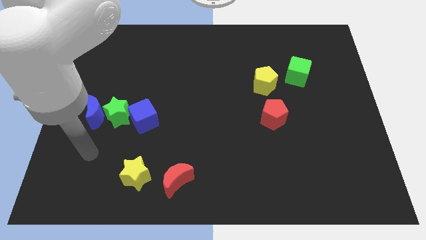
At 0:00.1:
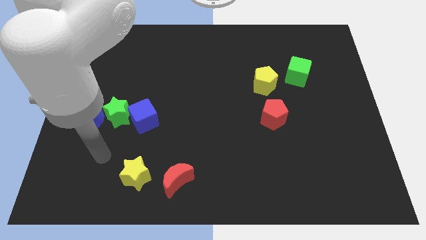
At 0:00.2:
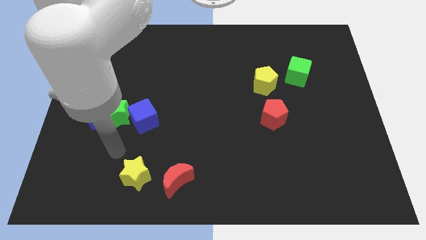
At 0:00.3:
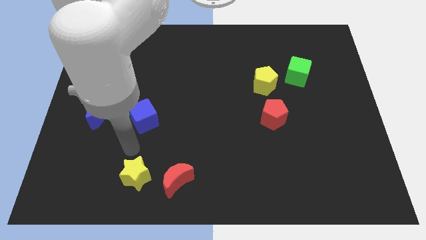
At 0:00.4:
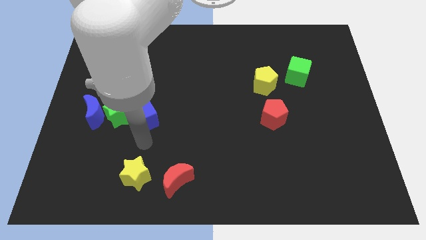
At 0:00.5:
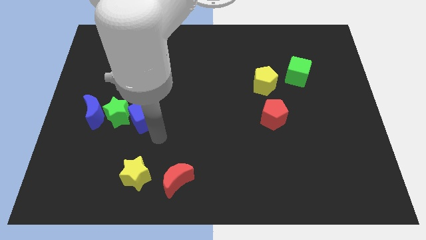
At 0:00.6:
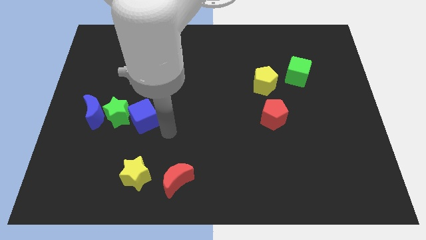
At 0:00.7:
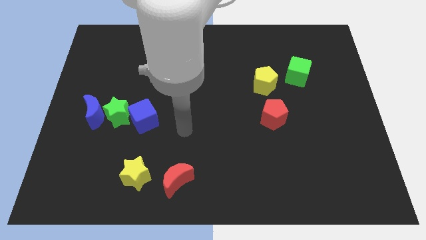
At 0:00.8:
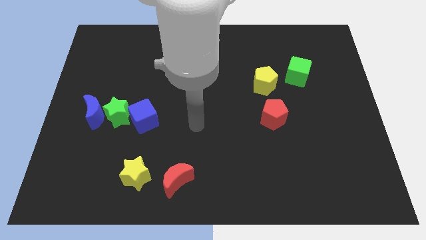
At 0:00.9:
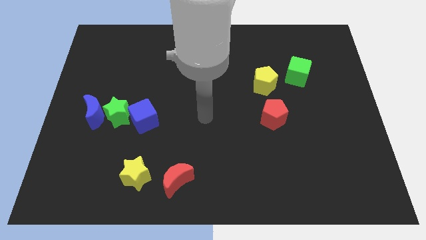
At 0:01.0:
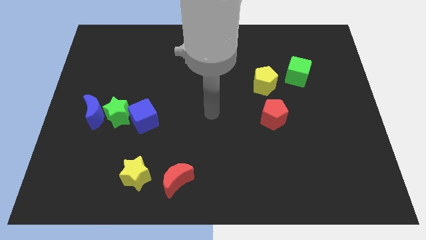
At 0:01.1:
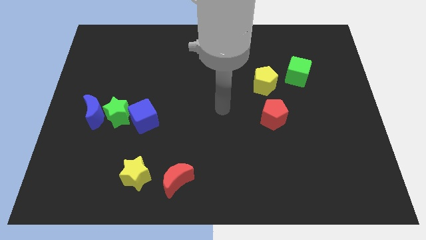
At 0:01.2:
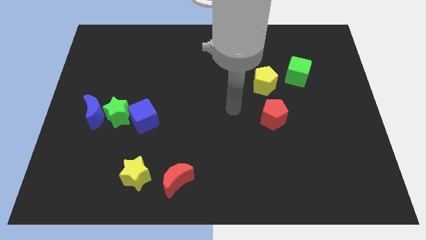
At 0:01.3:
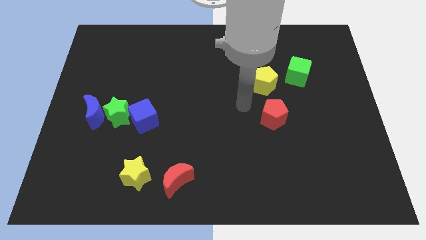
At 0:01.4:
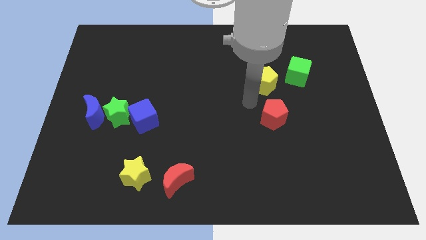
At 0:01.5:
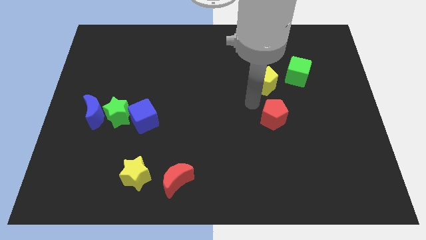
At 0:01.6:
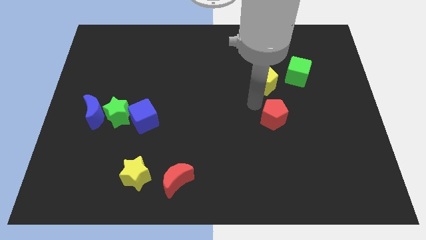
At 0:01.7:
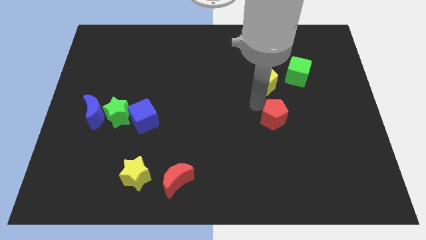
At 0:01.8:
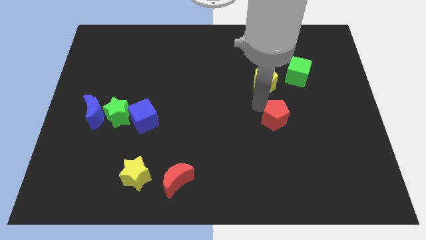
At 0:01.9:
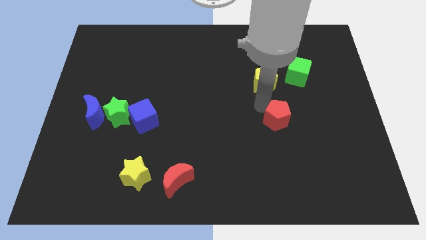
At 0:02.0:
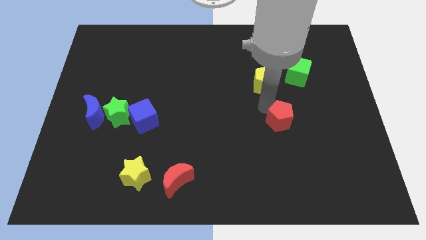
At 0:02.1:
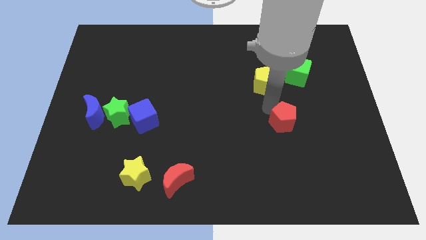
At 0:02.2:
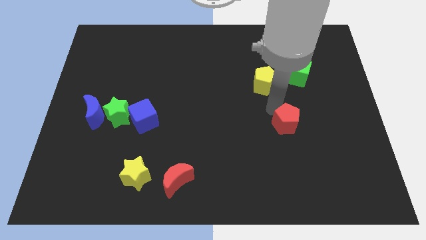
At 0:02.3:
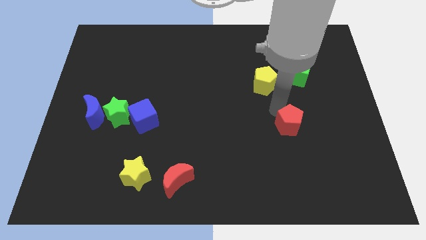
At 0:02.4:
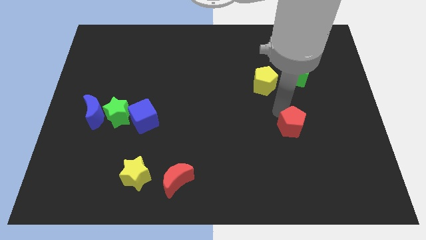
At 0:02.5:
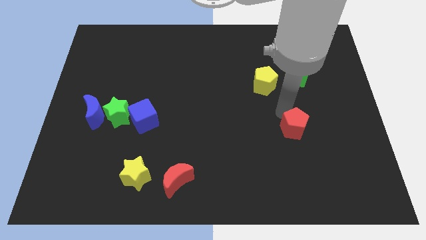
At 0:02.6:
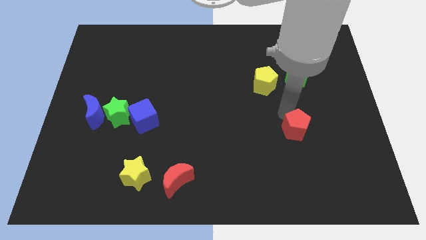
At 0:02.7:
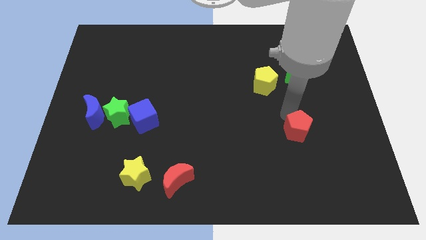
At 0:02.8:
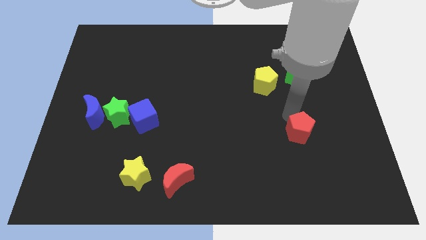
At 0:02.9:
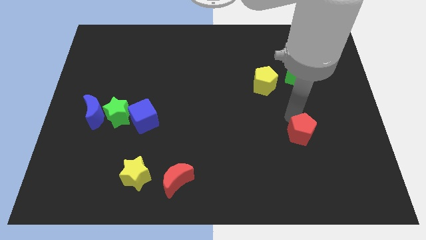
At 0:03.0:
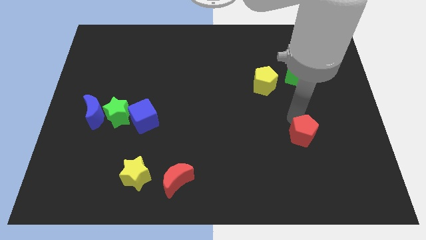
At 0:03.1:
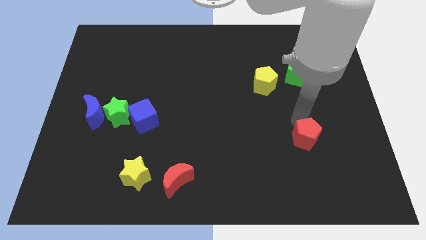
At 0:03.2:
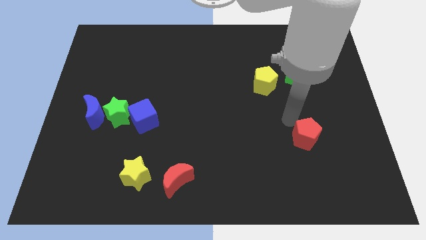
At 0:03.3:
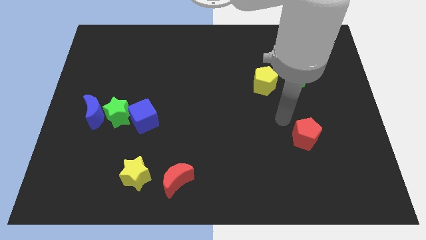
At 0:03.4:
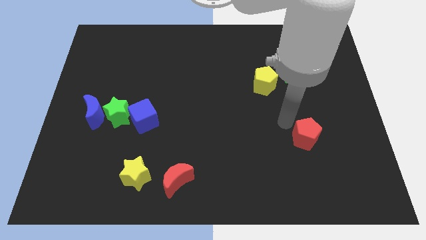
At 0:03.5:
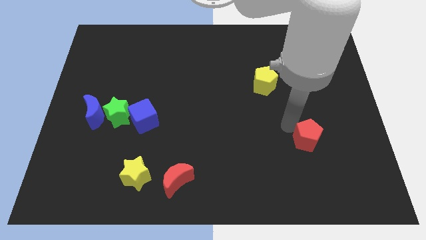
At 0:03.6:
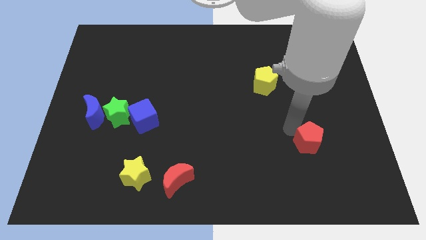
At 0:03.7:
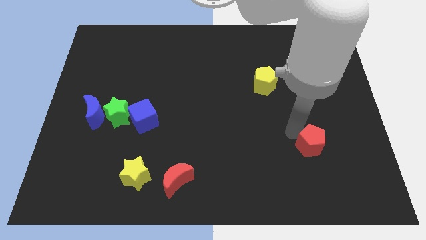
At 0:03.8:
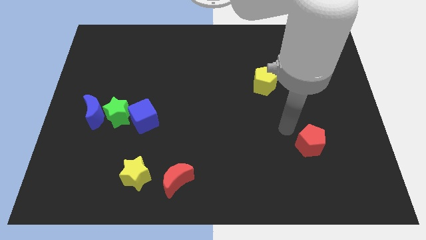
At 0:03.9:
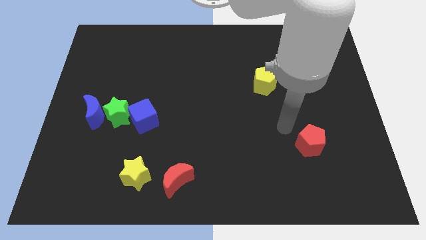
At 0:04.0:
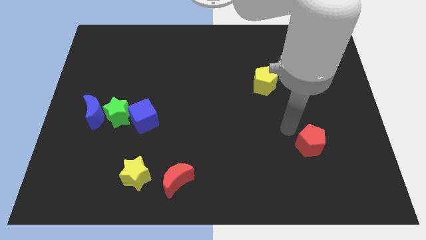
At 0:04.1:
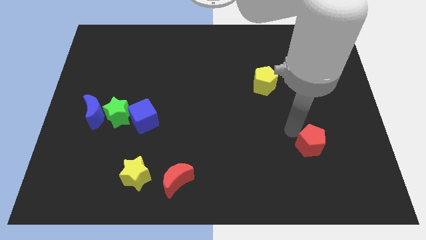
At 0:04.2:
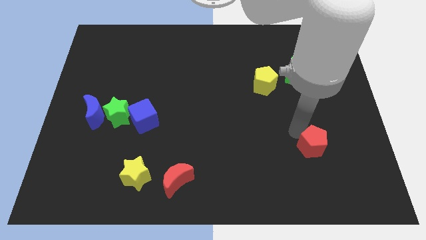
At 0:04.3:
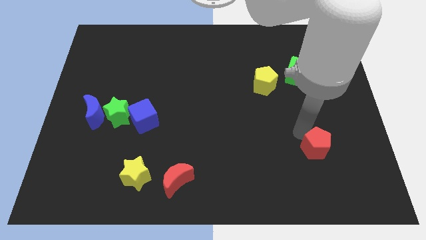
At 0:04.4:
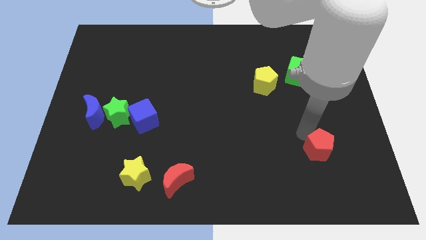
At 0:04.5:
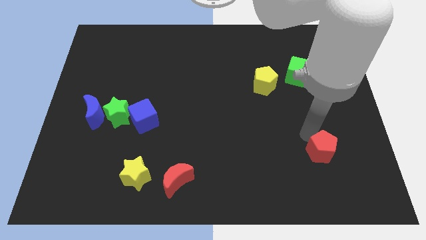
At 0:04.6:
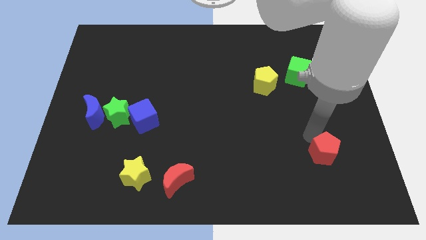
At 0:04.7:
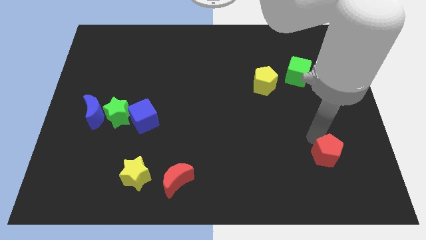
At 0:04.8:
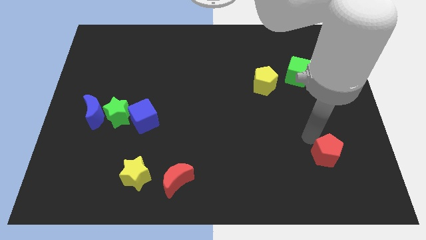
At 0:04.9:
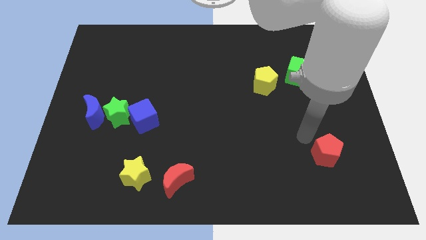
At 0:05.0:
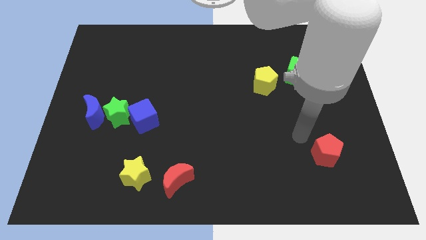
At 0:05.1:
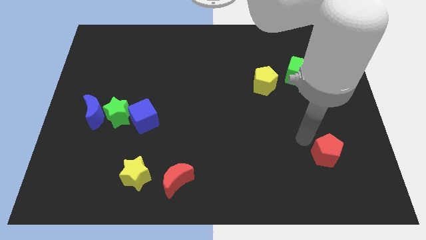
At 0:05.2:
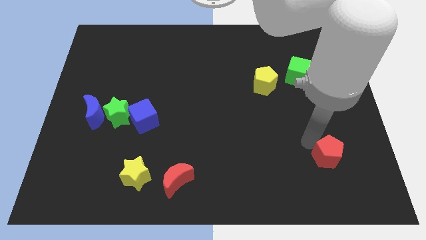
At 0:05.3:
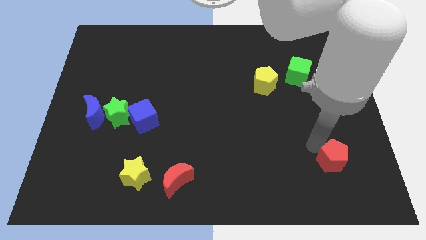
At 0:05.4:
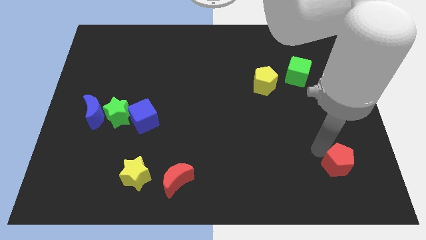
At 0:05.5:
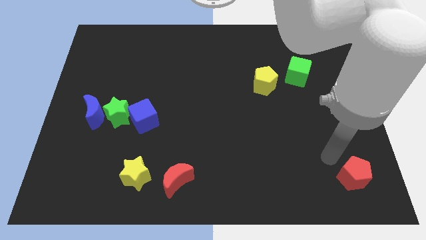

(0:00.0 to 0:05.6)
push the red pentagon to the bottom right corner

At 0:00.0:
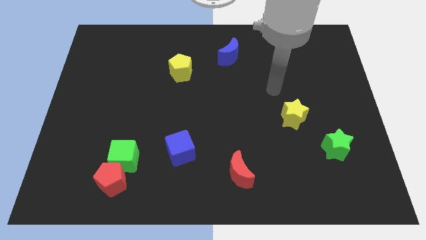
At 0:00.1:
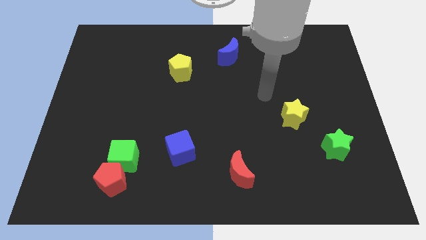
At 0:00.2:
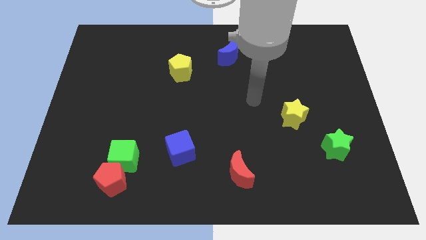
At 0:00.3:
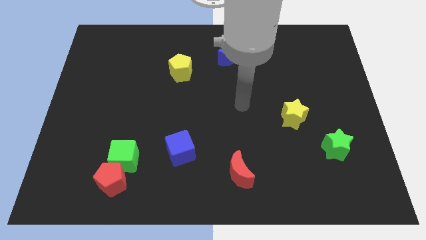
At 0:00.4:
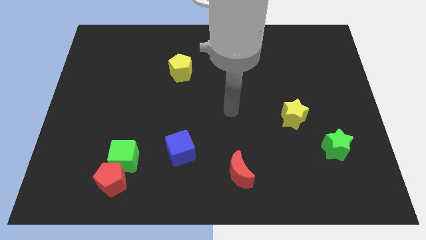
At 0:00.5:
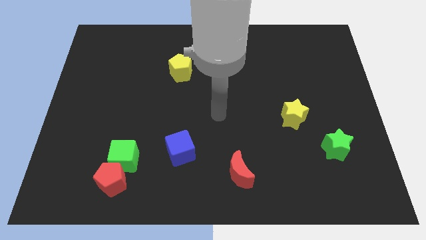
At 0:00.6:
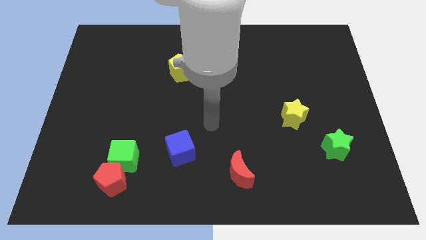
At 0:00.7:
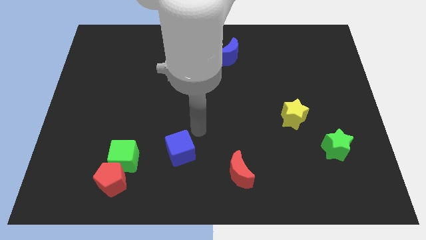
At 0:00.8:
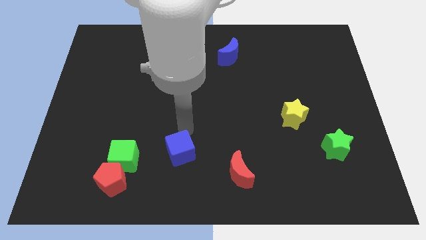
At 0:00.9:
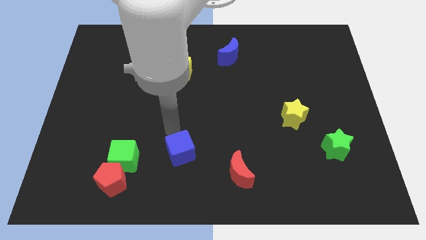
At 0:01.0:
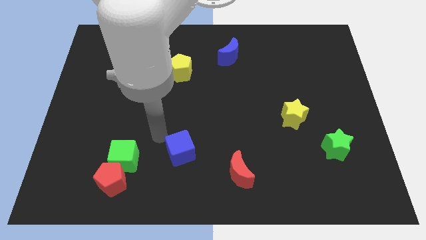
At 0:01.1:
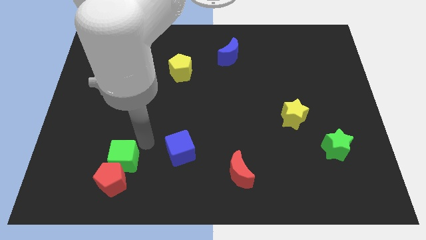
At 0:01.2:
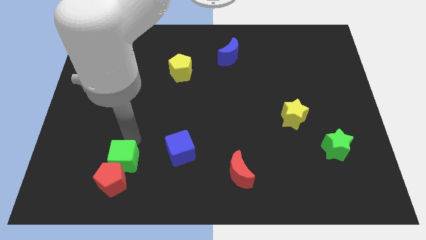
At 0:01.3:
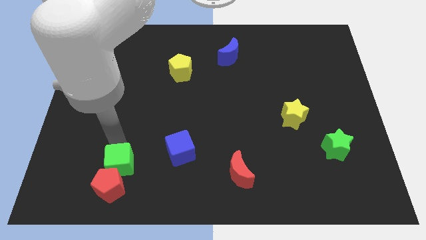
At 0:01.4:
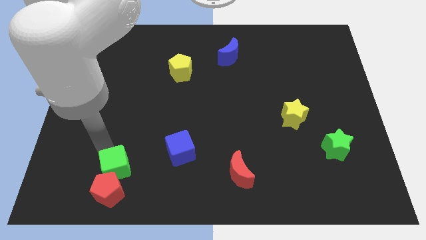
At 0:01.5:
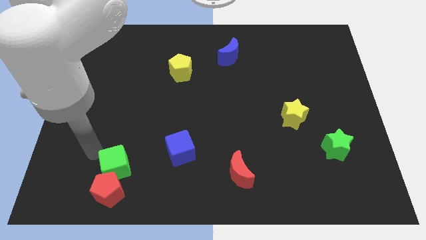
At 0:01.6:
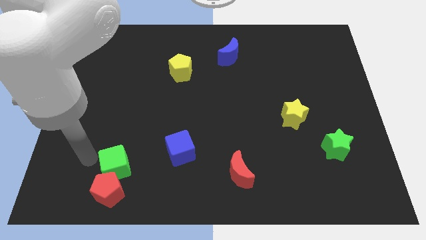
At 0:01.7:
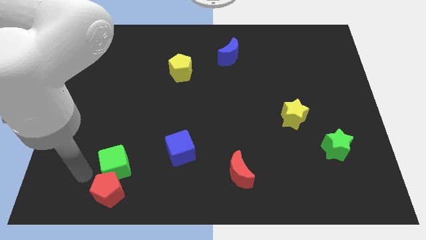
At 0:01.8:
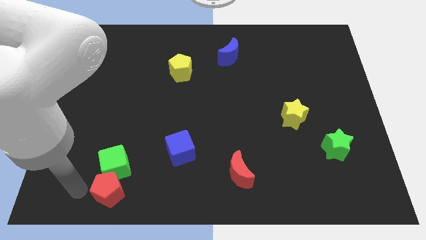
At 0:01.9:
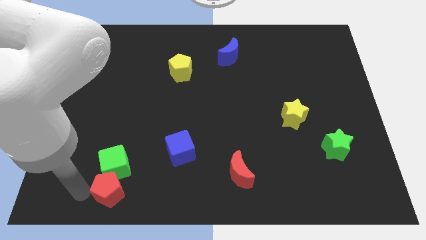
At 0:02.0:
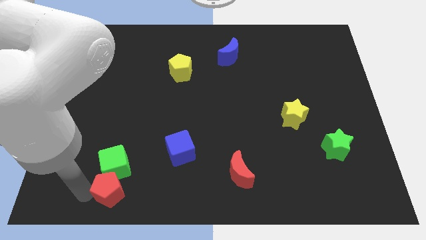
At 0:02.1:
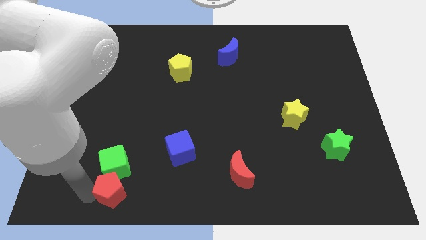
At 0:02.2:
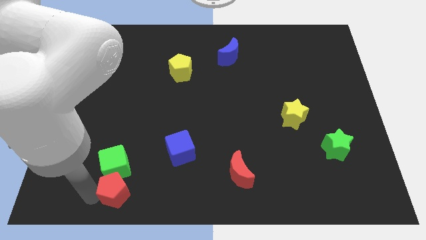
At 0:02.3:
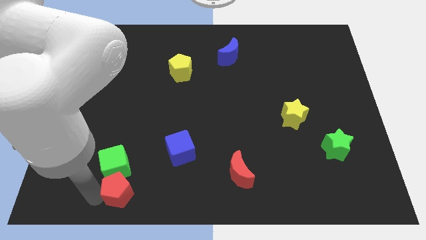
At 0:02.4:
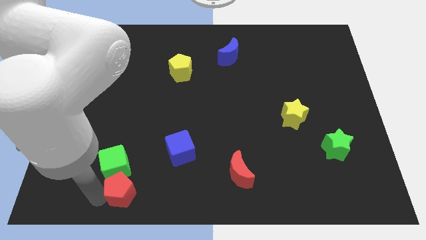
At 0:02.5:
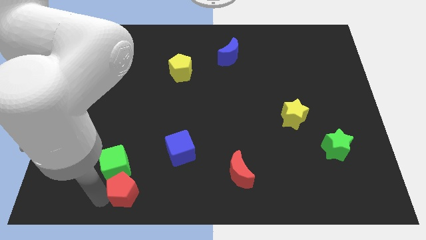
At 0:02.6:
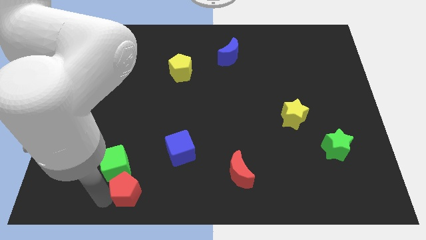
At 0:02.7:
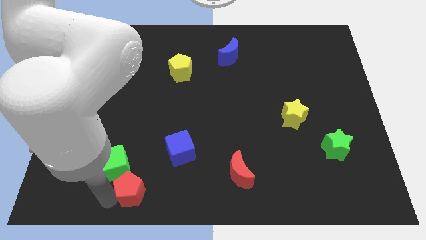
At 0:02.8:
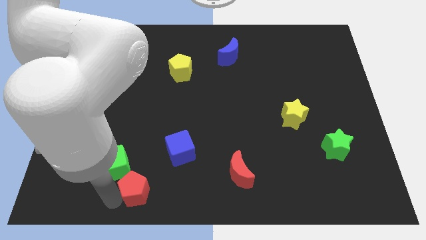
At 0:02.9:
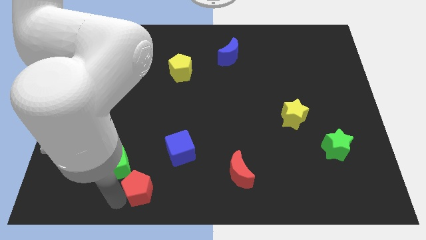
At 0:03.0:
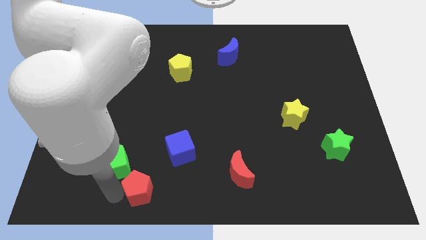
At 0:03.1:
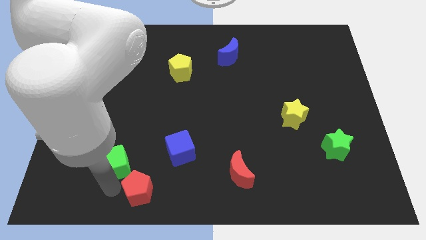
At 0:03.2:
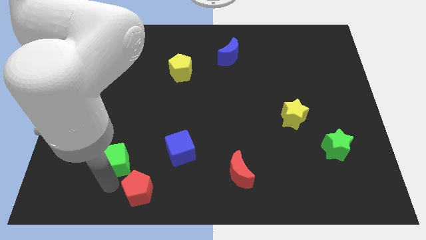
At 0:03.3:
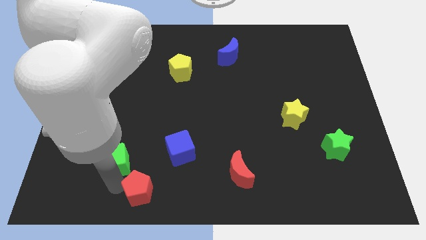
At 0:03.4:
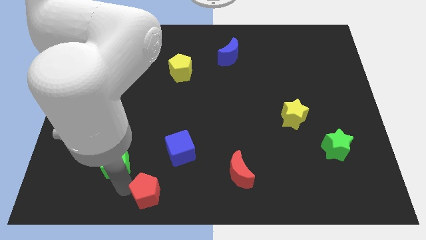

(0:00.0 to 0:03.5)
move the red pentagon to the bottom side
